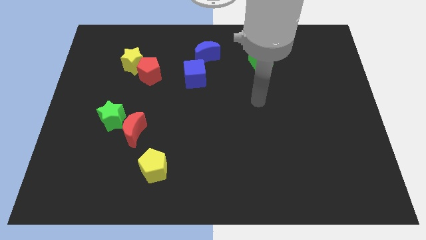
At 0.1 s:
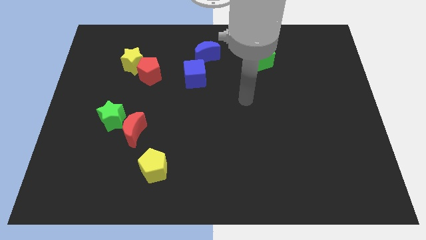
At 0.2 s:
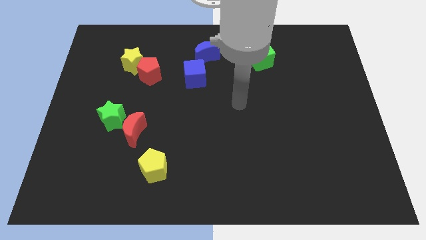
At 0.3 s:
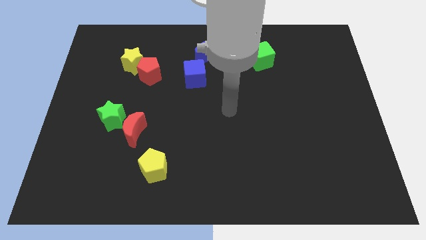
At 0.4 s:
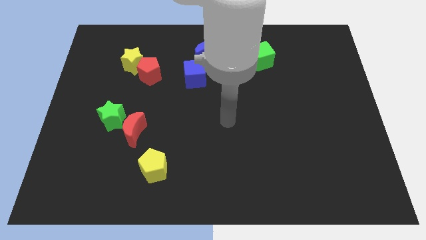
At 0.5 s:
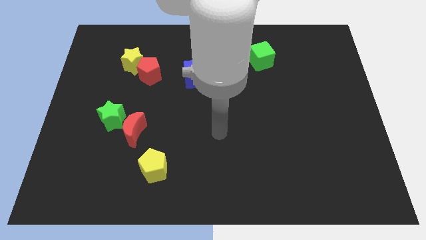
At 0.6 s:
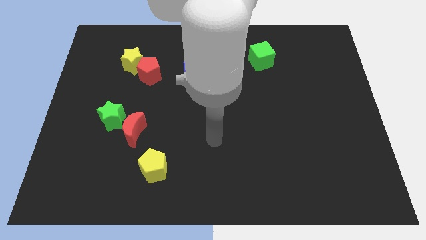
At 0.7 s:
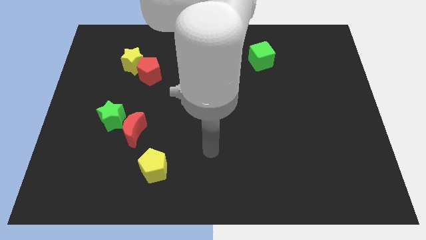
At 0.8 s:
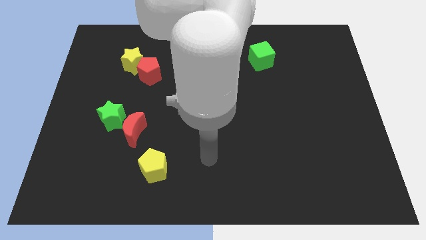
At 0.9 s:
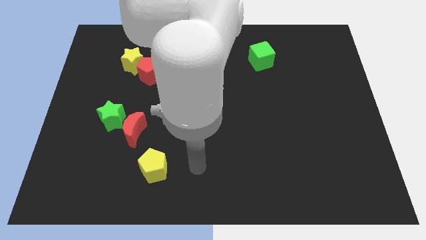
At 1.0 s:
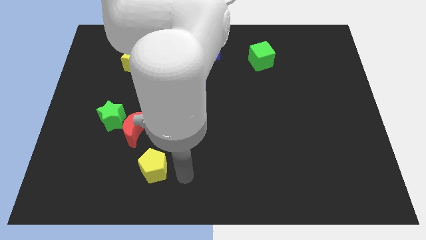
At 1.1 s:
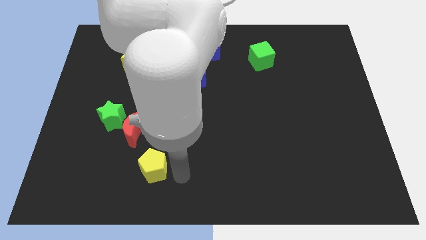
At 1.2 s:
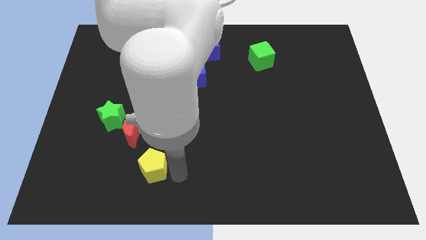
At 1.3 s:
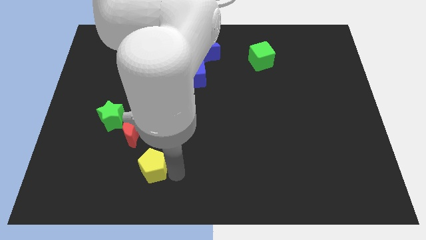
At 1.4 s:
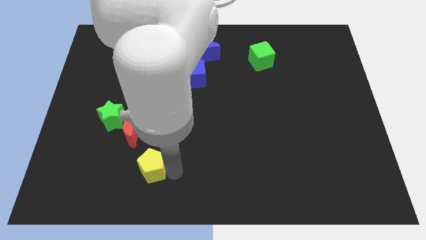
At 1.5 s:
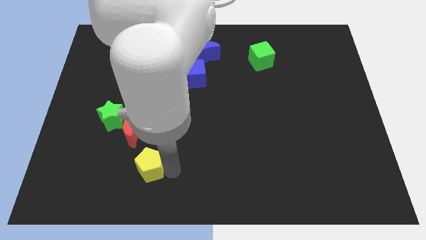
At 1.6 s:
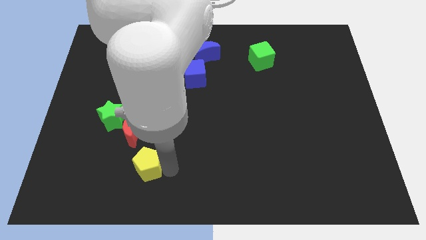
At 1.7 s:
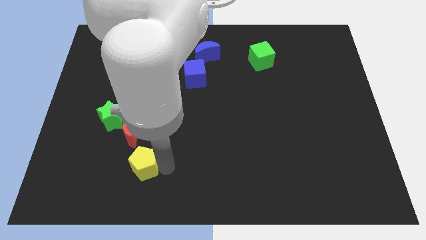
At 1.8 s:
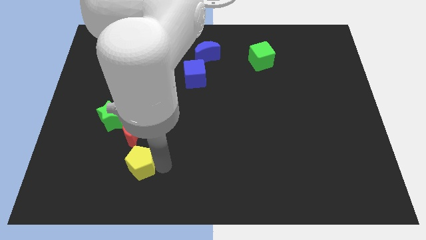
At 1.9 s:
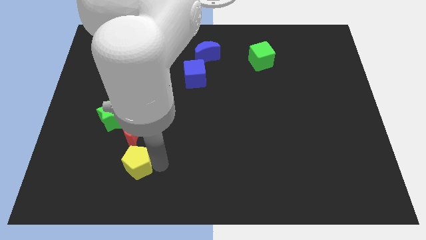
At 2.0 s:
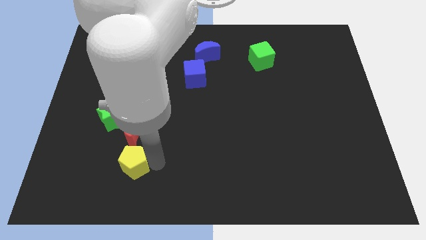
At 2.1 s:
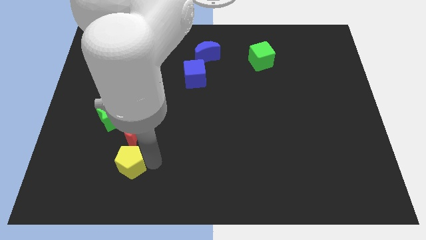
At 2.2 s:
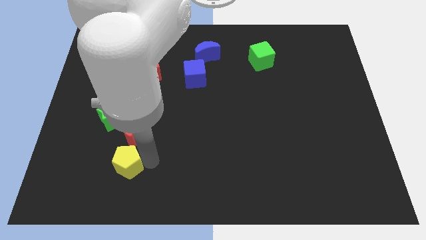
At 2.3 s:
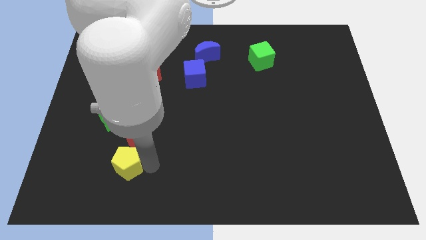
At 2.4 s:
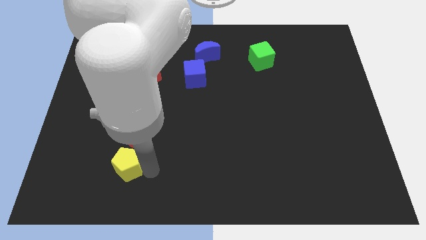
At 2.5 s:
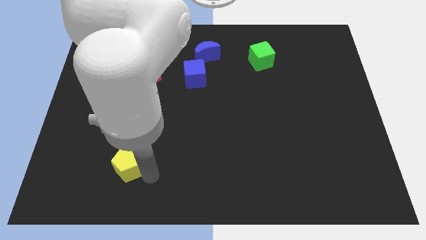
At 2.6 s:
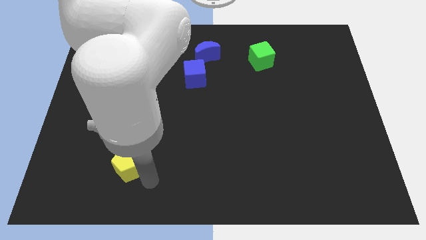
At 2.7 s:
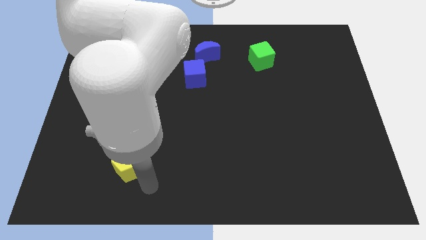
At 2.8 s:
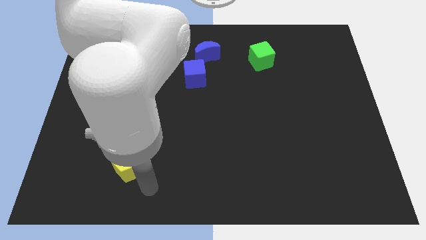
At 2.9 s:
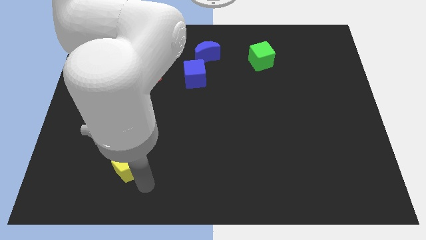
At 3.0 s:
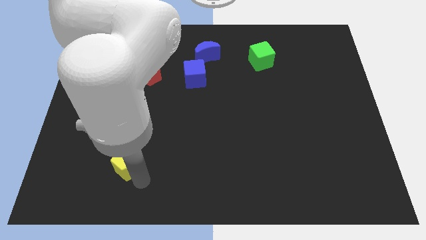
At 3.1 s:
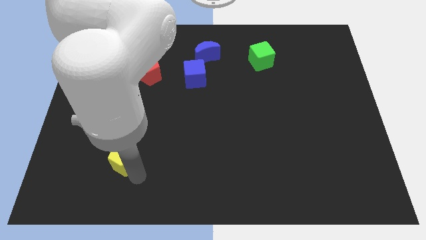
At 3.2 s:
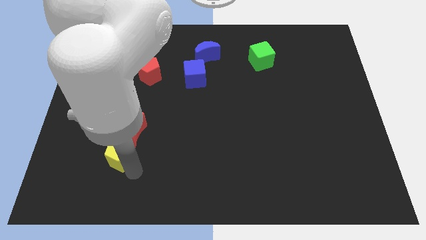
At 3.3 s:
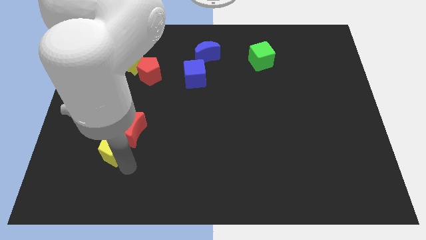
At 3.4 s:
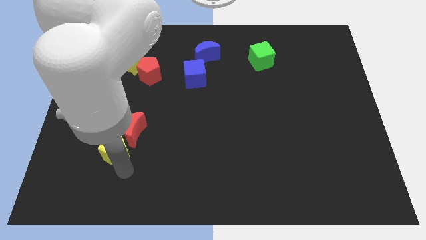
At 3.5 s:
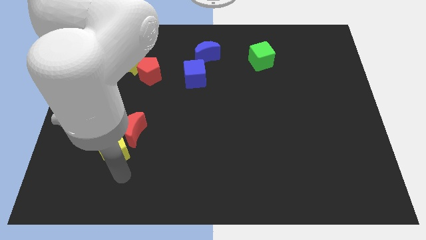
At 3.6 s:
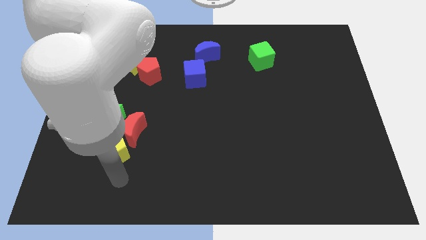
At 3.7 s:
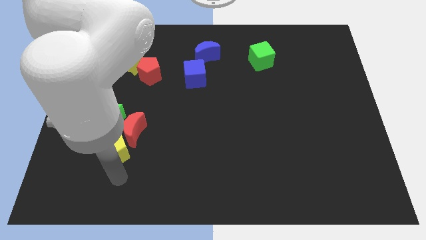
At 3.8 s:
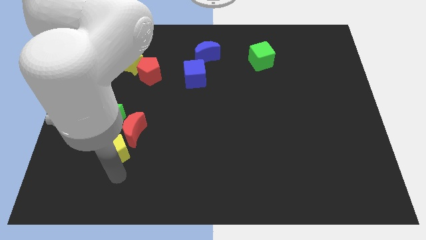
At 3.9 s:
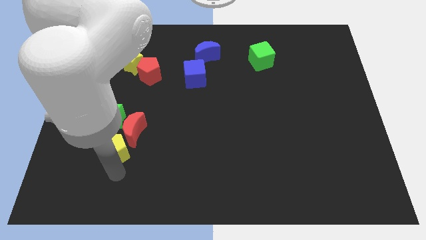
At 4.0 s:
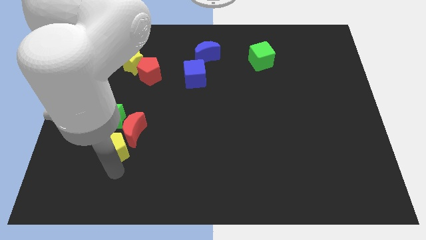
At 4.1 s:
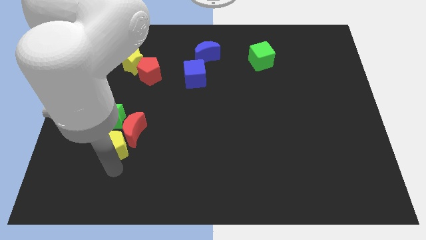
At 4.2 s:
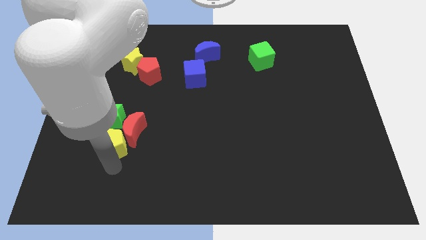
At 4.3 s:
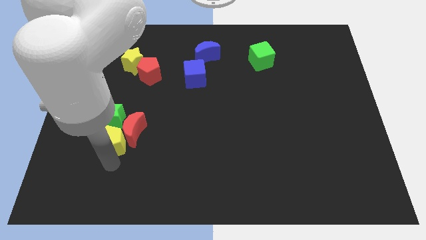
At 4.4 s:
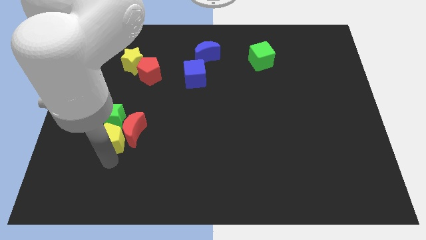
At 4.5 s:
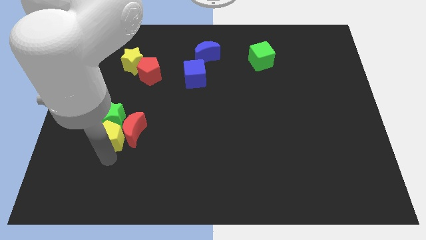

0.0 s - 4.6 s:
push the yellow pentagon towards the green star

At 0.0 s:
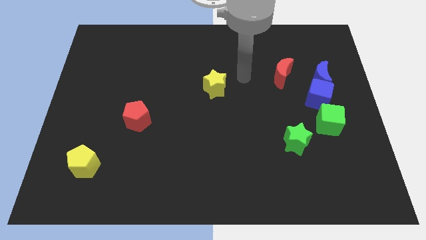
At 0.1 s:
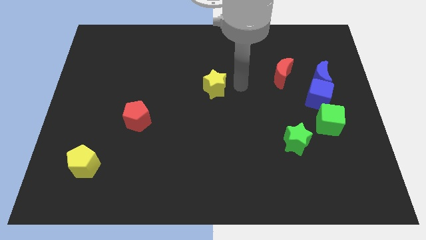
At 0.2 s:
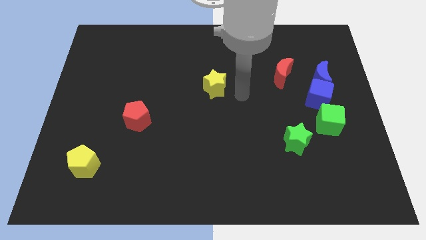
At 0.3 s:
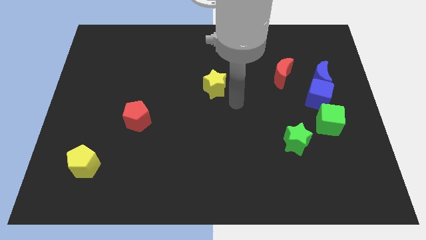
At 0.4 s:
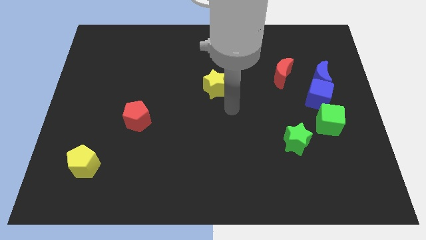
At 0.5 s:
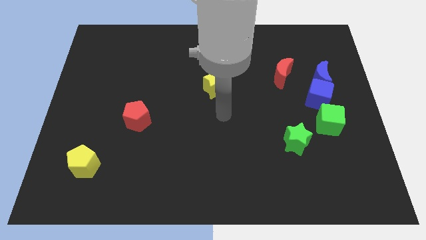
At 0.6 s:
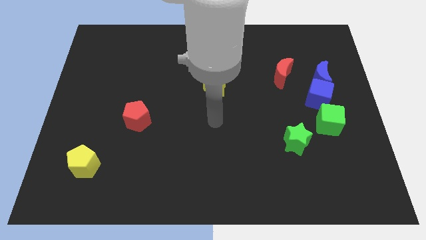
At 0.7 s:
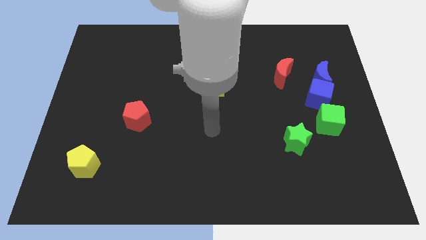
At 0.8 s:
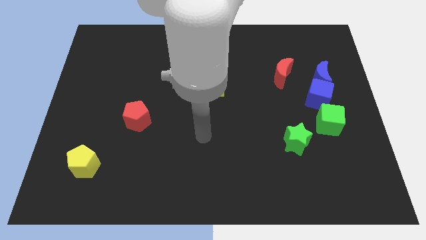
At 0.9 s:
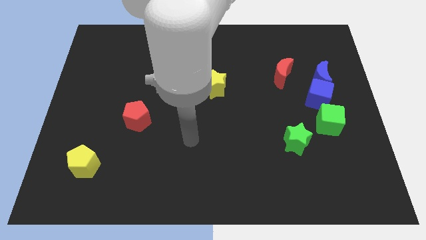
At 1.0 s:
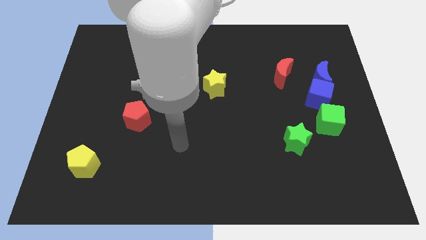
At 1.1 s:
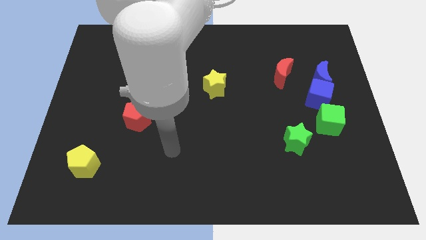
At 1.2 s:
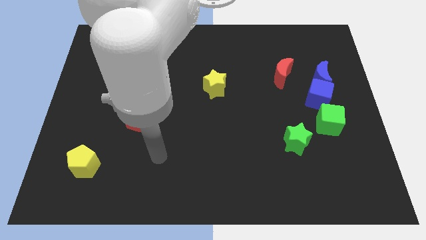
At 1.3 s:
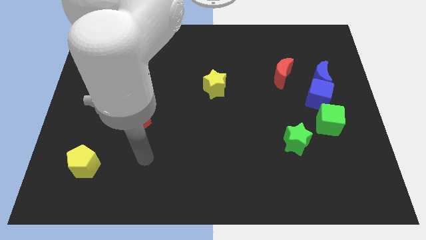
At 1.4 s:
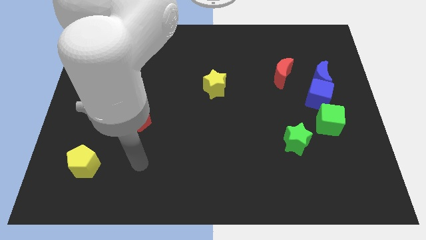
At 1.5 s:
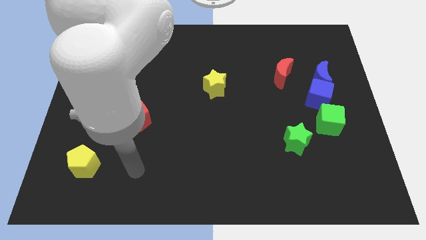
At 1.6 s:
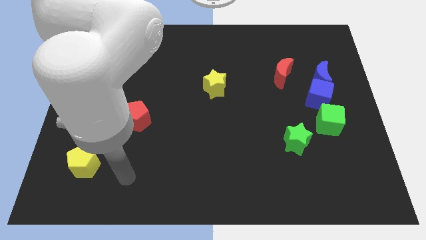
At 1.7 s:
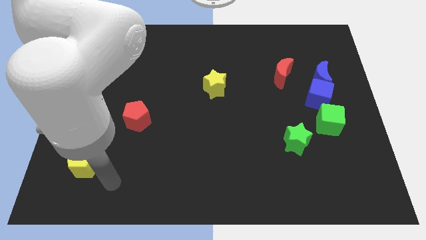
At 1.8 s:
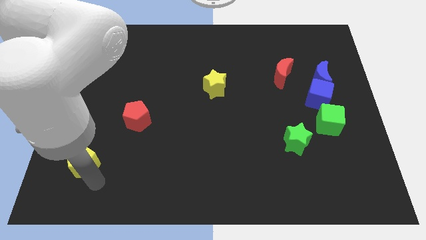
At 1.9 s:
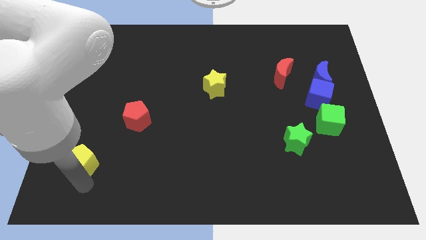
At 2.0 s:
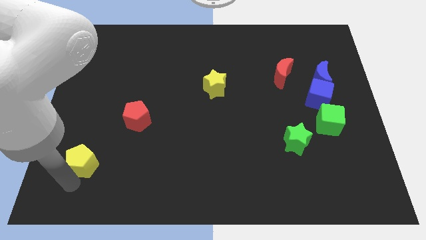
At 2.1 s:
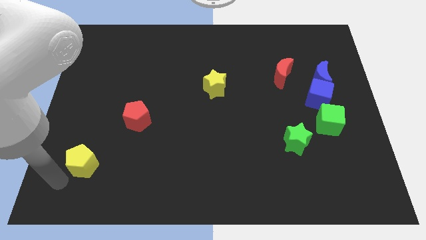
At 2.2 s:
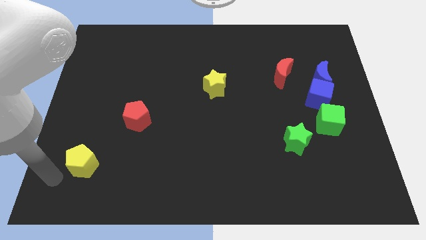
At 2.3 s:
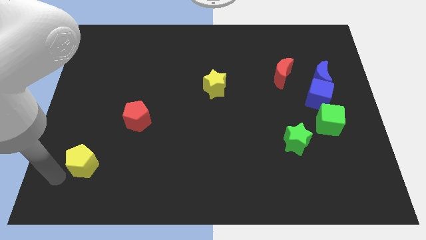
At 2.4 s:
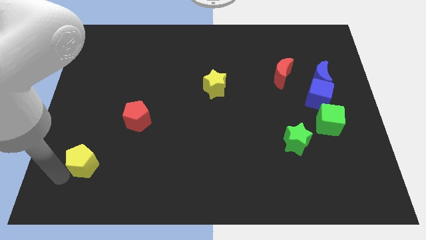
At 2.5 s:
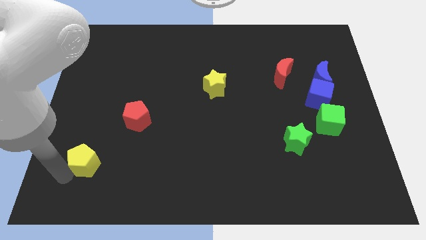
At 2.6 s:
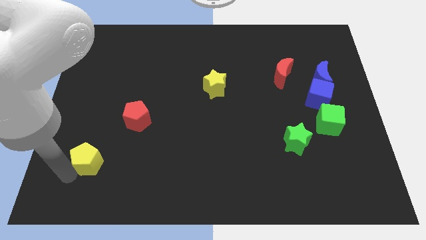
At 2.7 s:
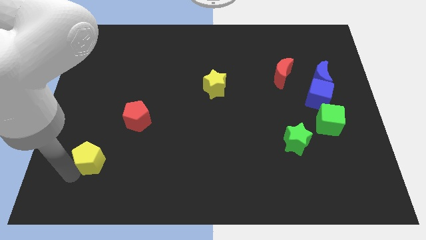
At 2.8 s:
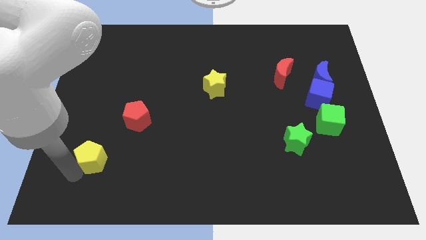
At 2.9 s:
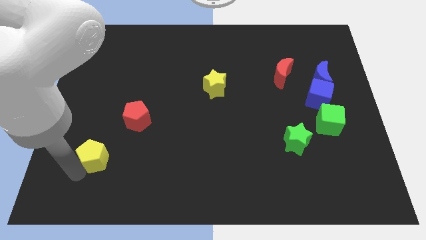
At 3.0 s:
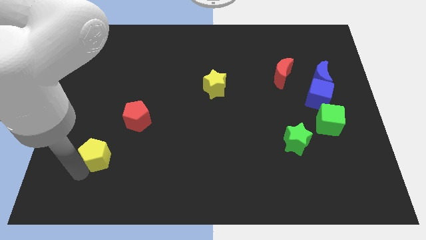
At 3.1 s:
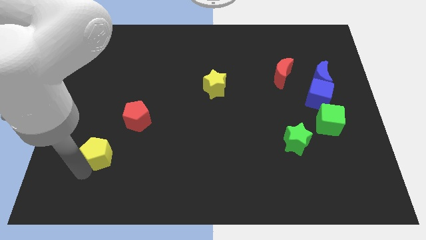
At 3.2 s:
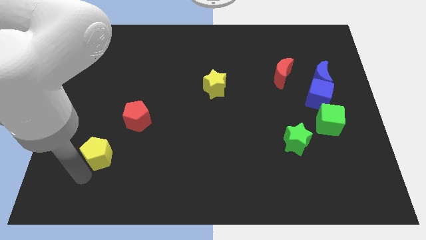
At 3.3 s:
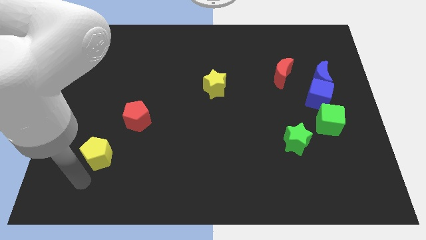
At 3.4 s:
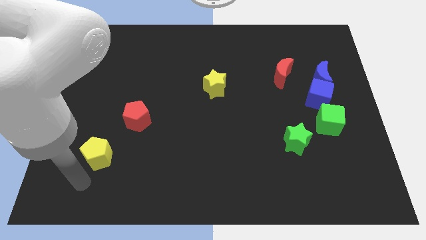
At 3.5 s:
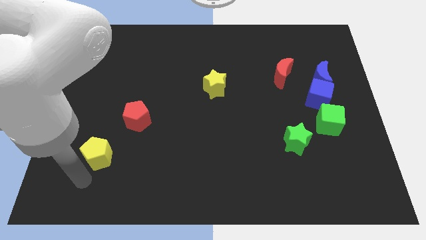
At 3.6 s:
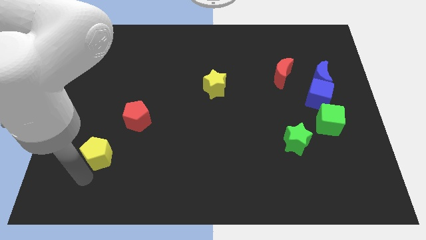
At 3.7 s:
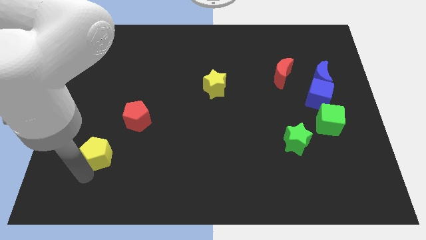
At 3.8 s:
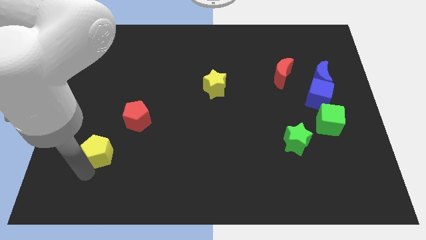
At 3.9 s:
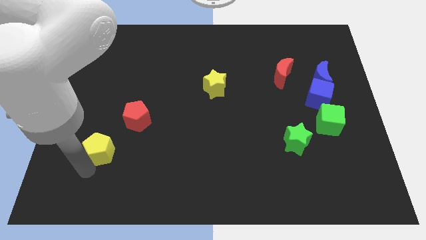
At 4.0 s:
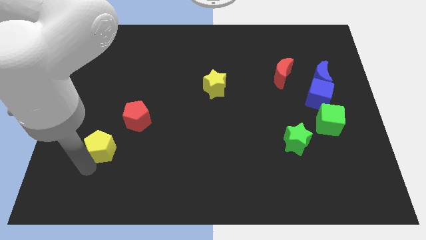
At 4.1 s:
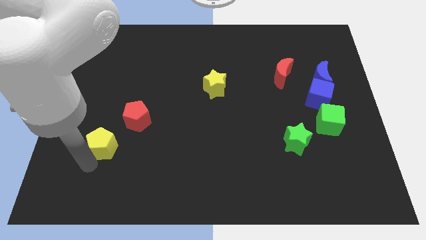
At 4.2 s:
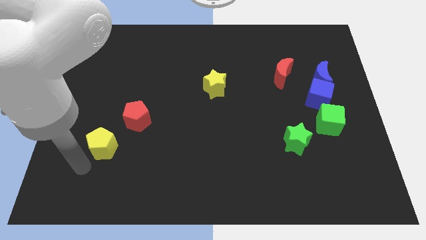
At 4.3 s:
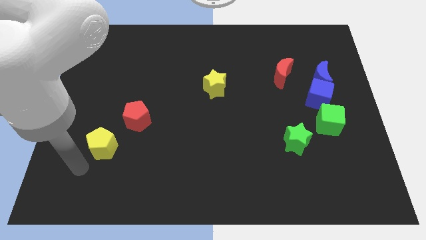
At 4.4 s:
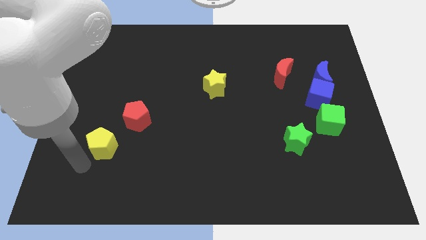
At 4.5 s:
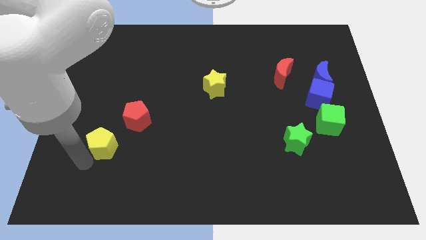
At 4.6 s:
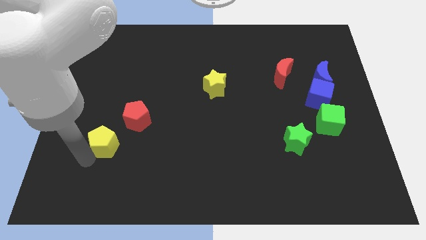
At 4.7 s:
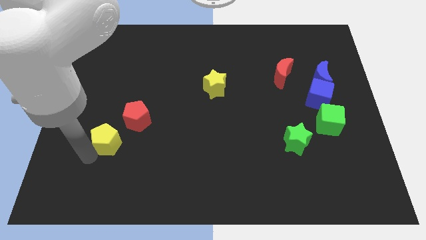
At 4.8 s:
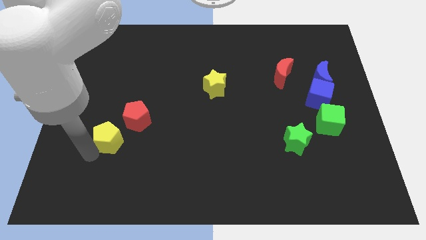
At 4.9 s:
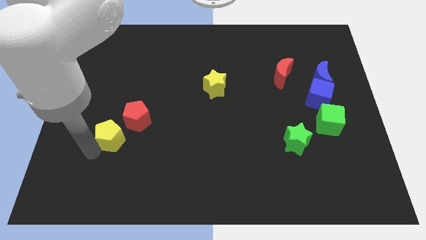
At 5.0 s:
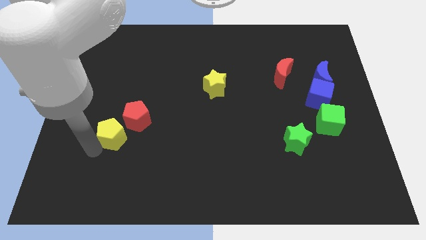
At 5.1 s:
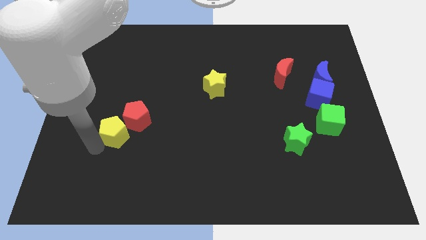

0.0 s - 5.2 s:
move the yellow pentagon next to the red pentagon
